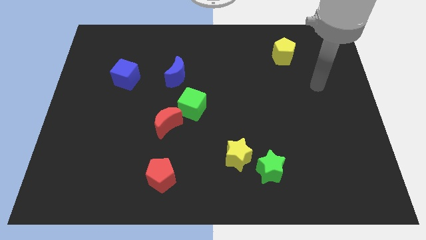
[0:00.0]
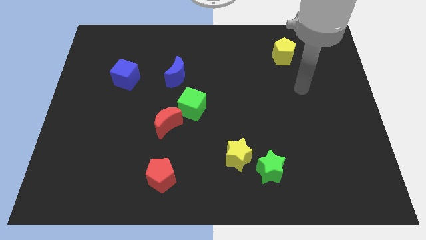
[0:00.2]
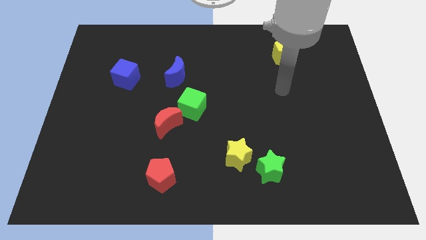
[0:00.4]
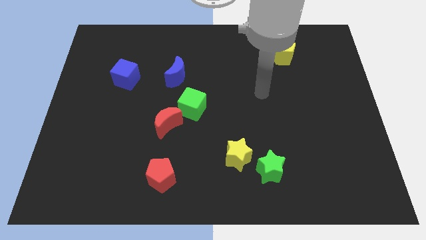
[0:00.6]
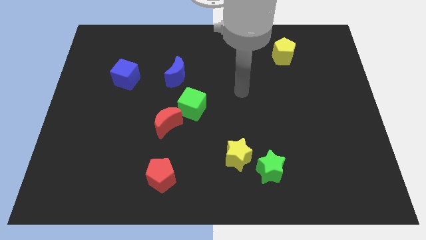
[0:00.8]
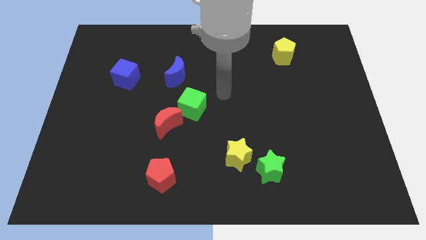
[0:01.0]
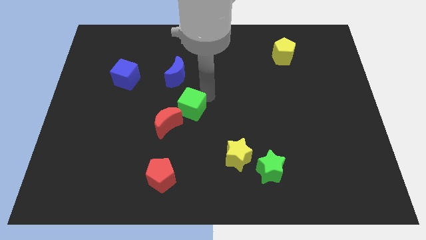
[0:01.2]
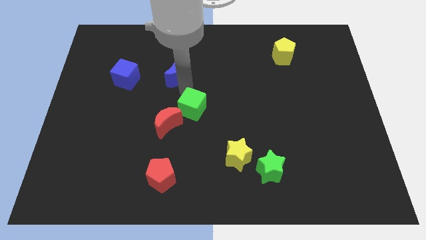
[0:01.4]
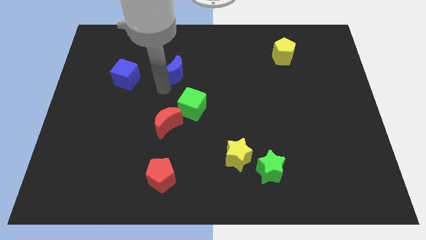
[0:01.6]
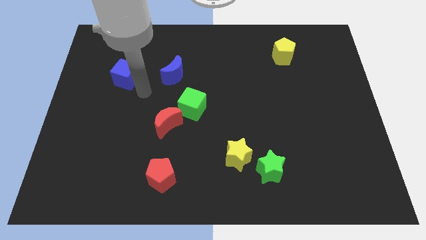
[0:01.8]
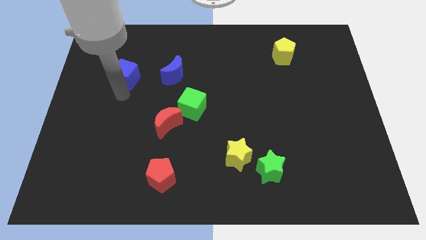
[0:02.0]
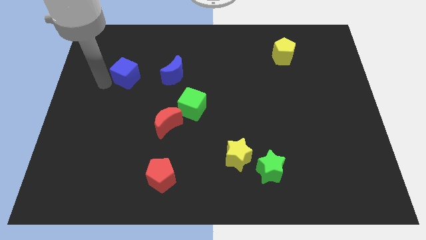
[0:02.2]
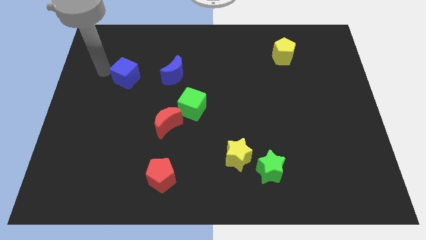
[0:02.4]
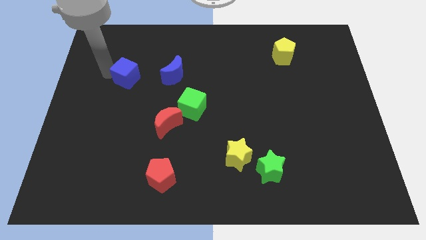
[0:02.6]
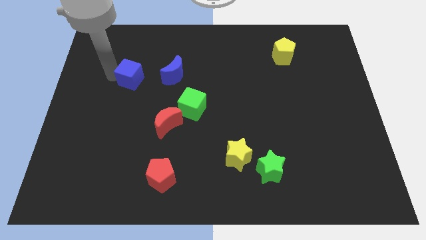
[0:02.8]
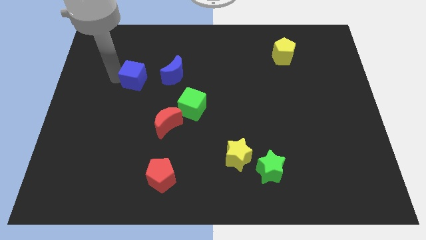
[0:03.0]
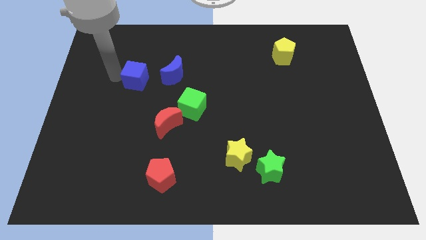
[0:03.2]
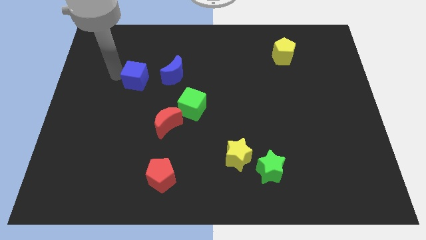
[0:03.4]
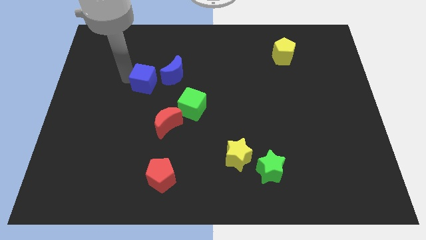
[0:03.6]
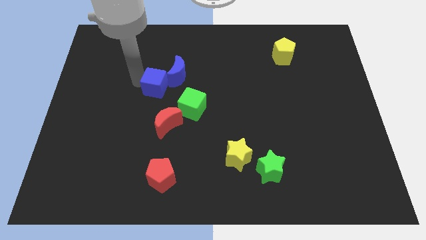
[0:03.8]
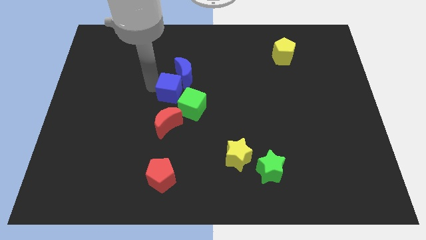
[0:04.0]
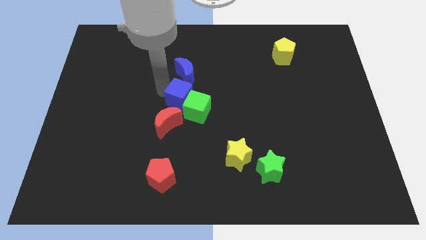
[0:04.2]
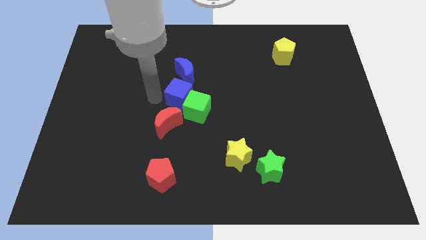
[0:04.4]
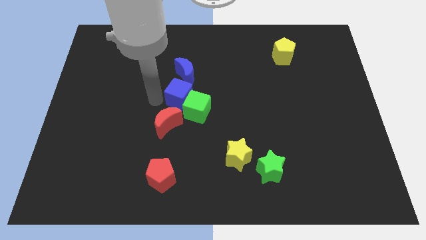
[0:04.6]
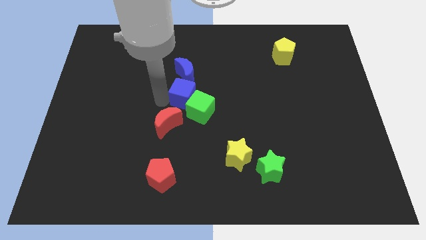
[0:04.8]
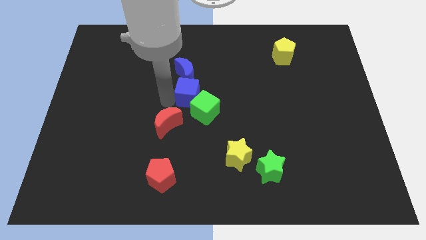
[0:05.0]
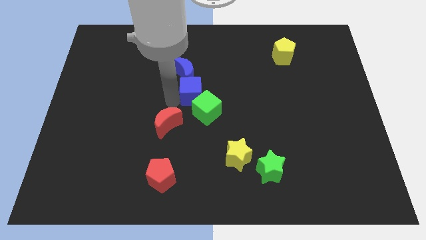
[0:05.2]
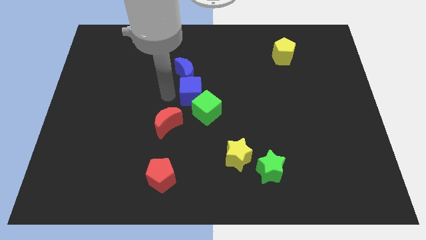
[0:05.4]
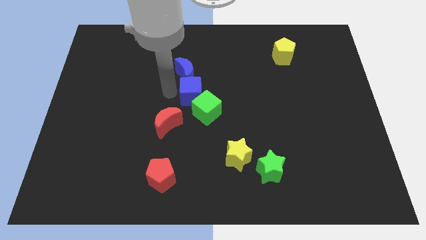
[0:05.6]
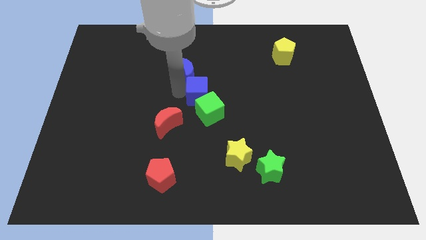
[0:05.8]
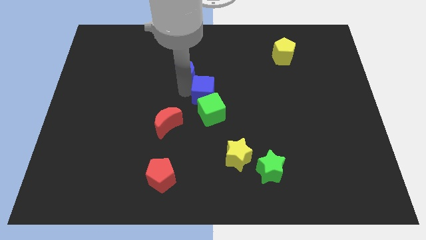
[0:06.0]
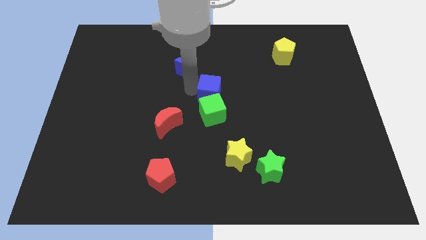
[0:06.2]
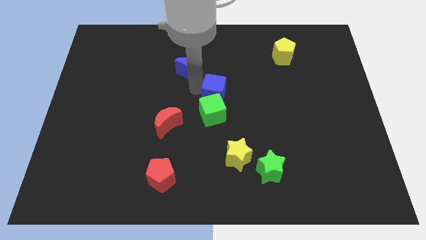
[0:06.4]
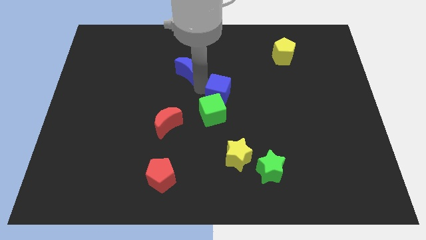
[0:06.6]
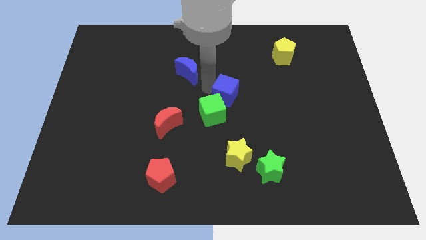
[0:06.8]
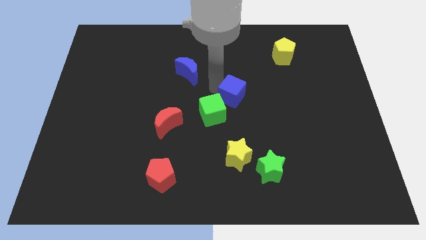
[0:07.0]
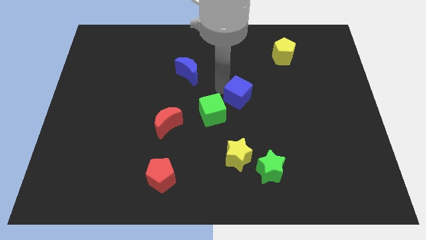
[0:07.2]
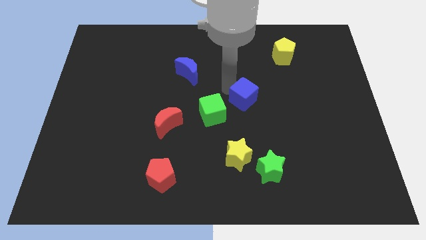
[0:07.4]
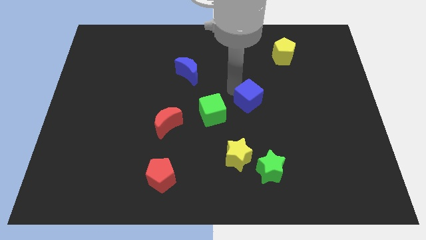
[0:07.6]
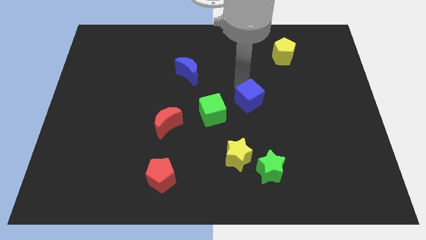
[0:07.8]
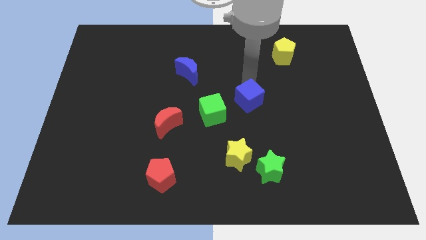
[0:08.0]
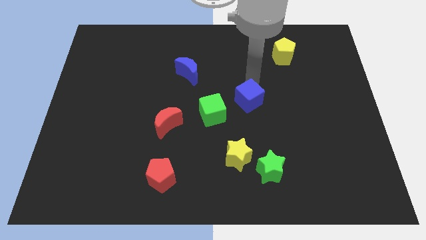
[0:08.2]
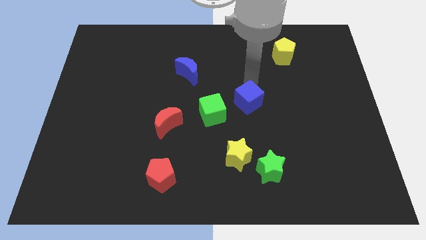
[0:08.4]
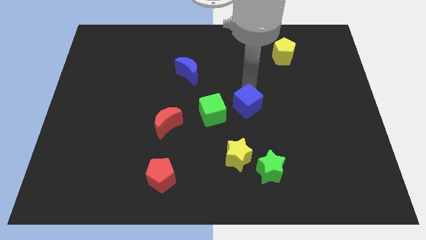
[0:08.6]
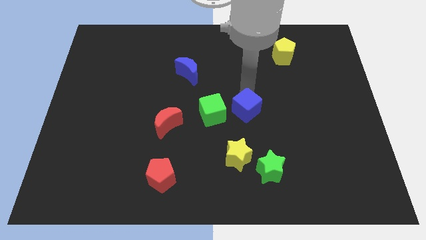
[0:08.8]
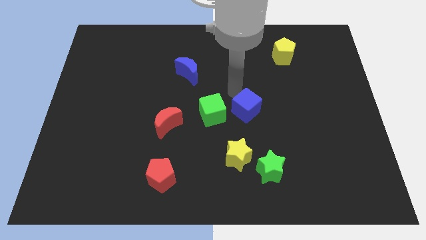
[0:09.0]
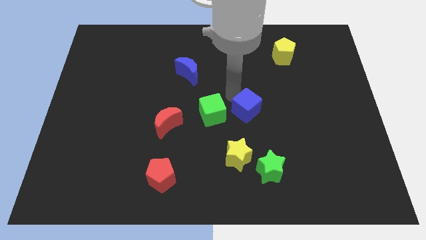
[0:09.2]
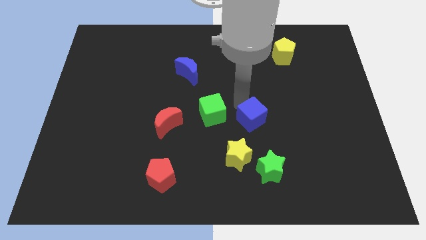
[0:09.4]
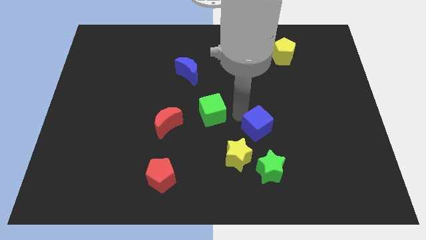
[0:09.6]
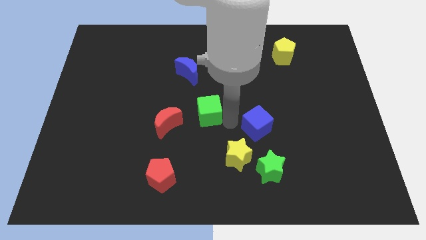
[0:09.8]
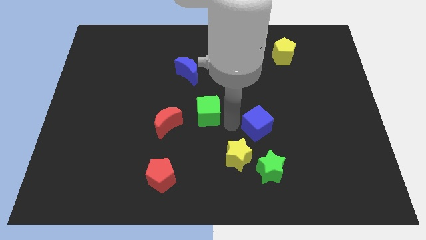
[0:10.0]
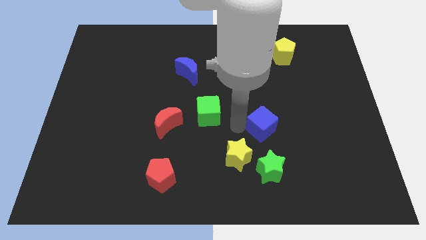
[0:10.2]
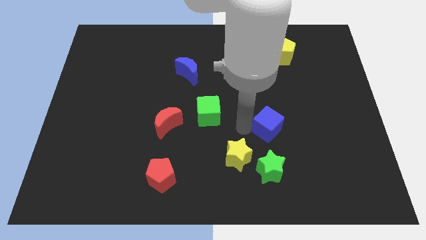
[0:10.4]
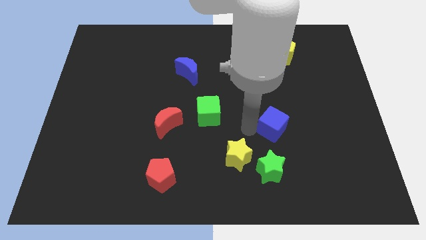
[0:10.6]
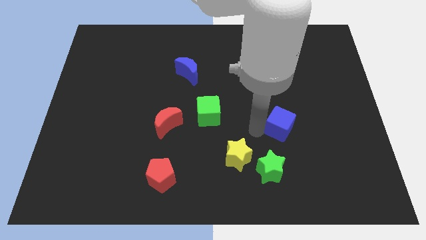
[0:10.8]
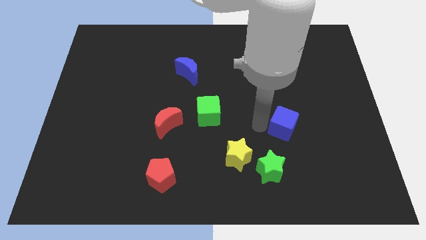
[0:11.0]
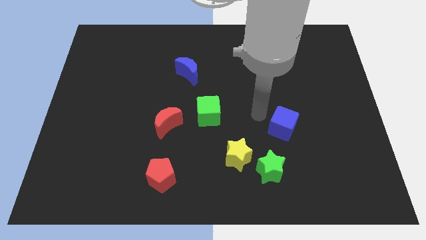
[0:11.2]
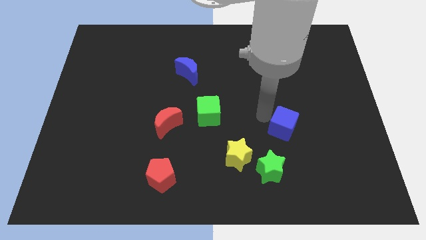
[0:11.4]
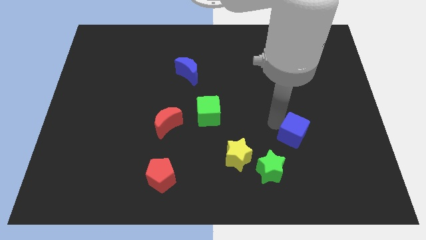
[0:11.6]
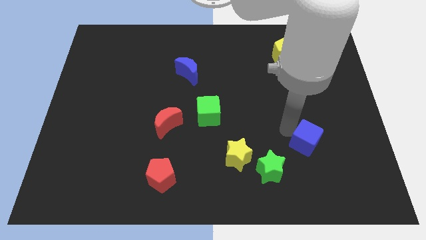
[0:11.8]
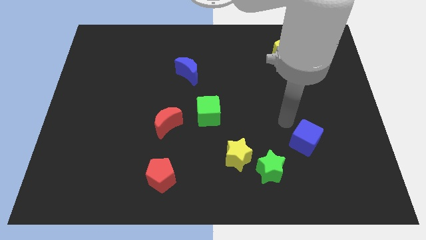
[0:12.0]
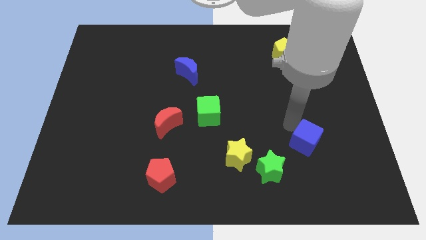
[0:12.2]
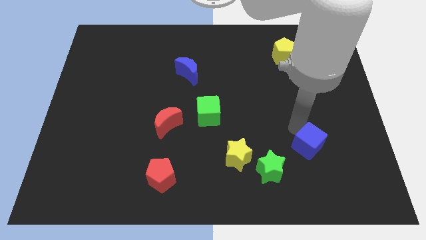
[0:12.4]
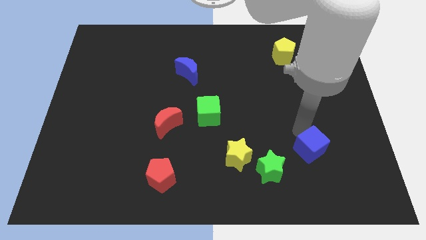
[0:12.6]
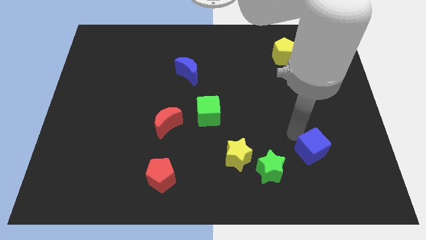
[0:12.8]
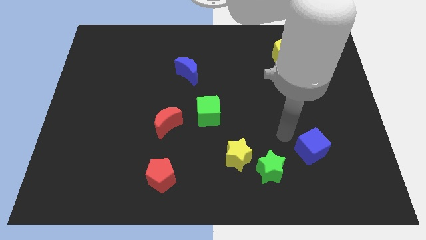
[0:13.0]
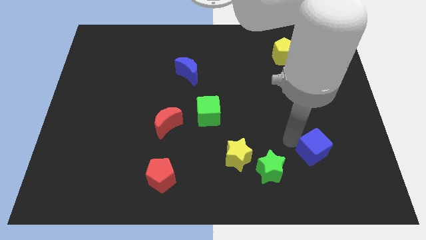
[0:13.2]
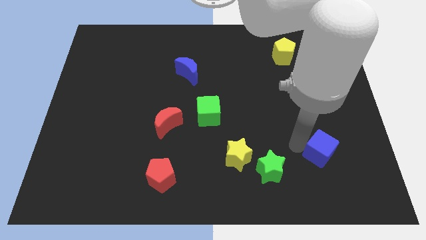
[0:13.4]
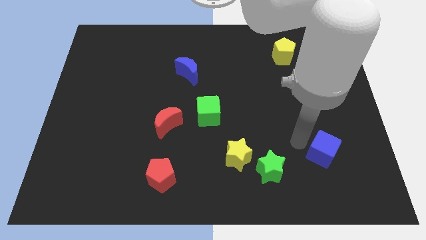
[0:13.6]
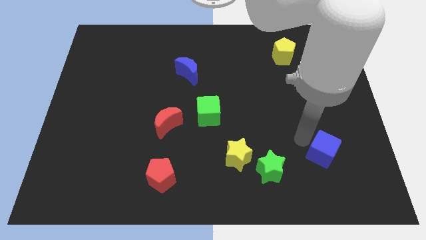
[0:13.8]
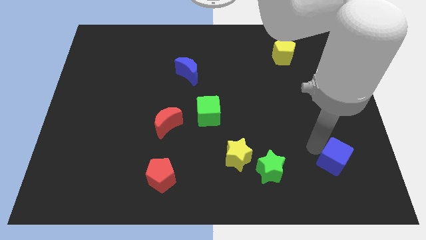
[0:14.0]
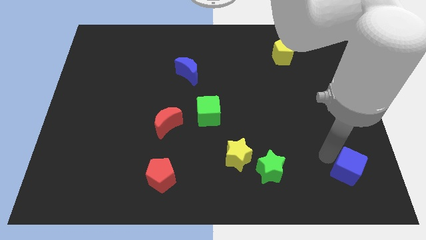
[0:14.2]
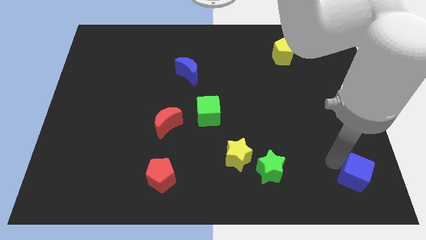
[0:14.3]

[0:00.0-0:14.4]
push the blue cube to the bottom right corner
